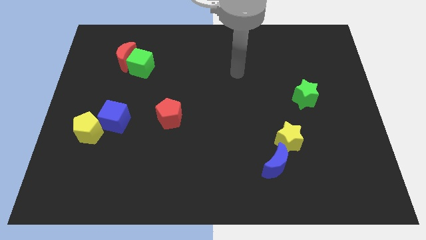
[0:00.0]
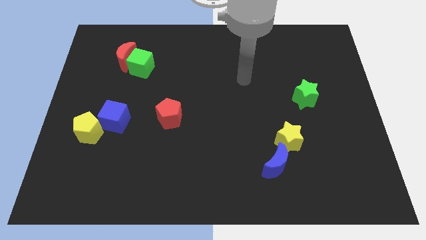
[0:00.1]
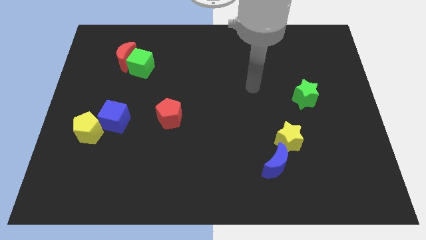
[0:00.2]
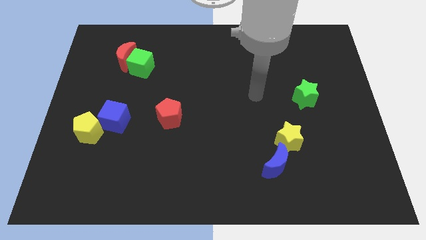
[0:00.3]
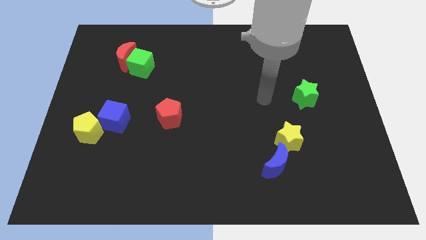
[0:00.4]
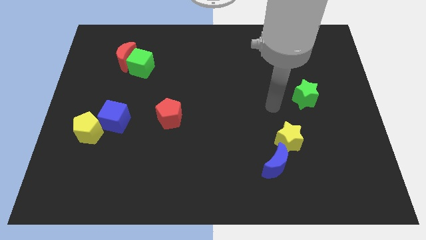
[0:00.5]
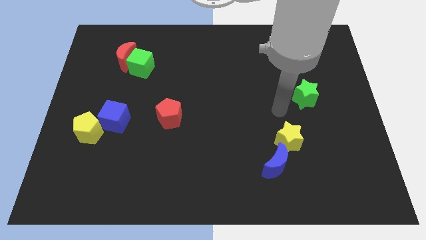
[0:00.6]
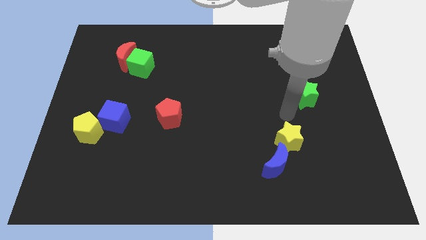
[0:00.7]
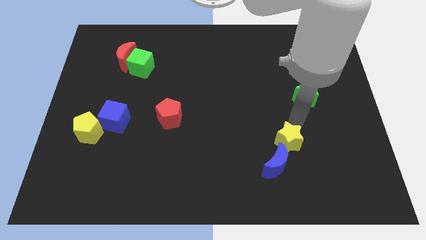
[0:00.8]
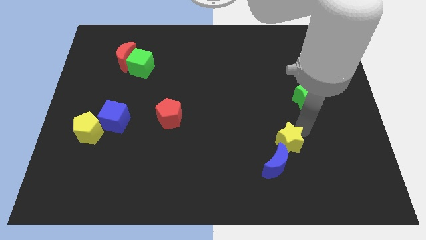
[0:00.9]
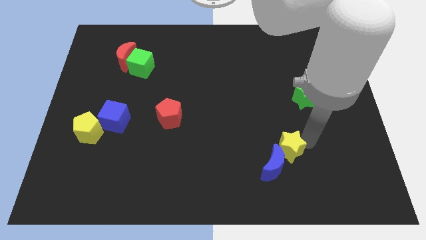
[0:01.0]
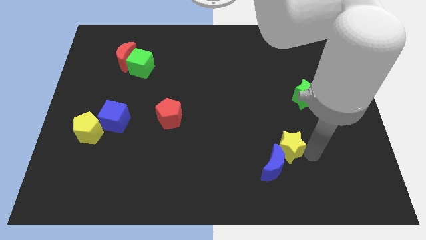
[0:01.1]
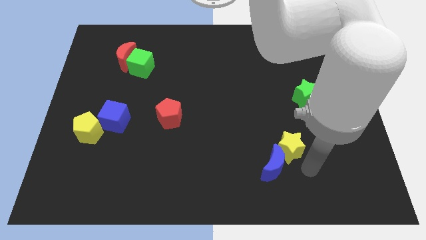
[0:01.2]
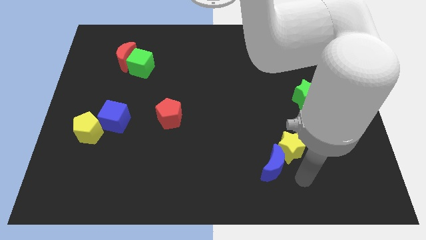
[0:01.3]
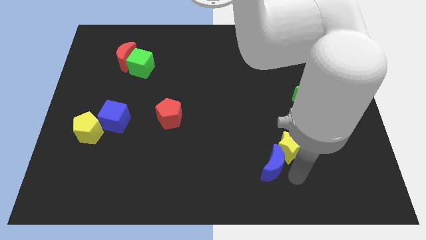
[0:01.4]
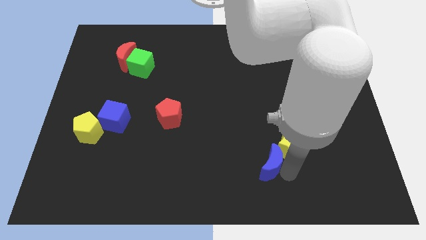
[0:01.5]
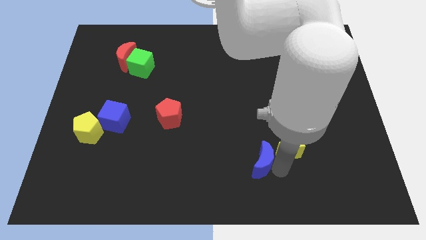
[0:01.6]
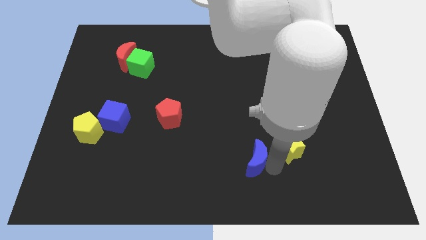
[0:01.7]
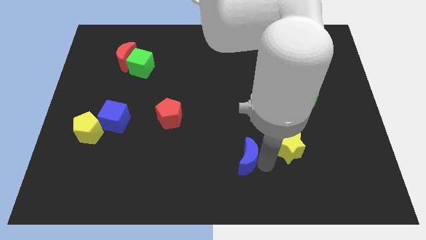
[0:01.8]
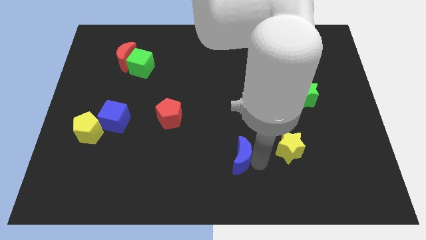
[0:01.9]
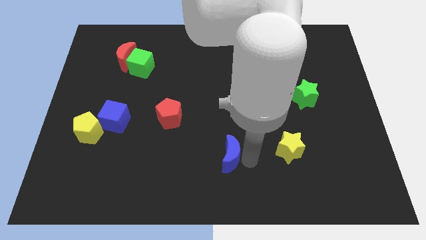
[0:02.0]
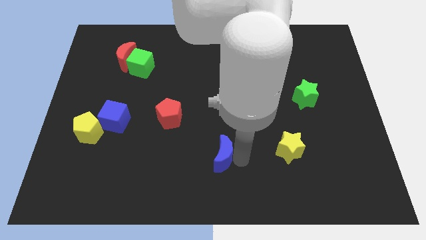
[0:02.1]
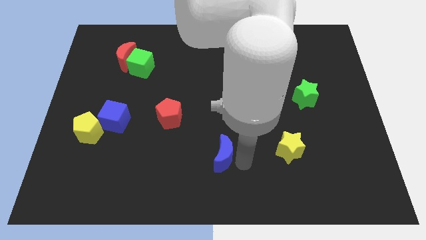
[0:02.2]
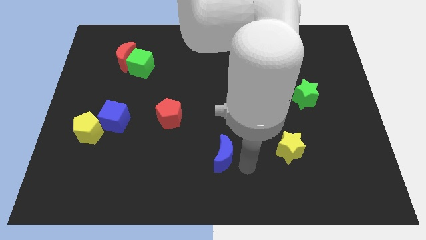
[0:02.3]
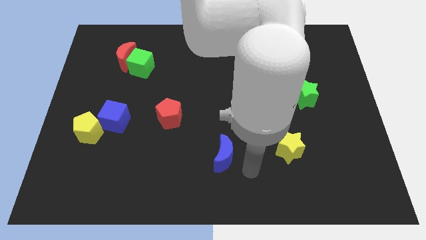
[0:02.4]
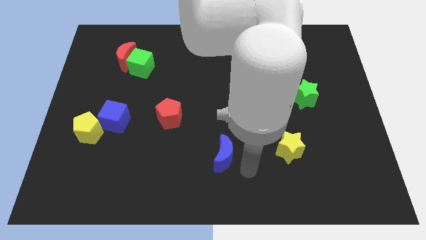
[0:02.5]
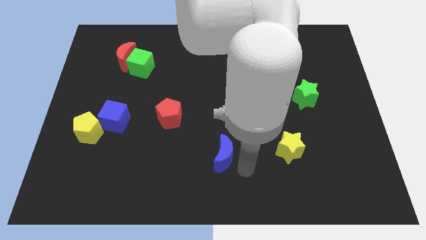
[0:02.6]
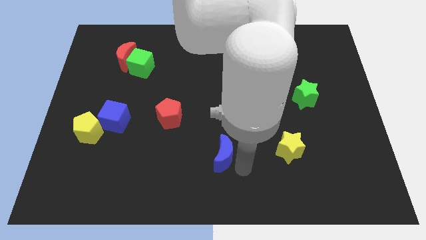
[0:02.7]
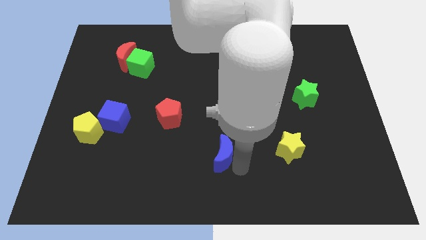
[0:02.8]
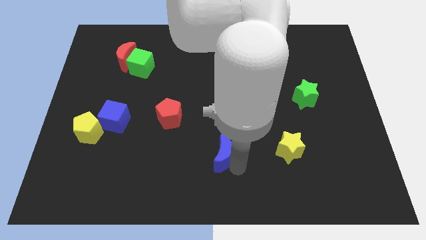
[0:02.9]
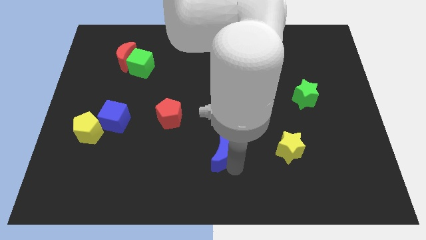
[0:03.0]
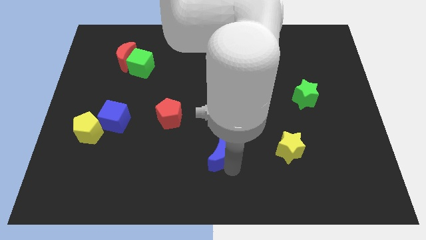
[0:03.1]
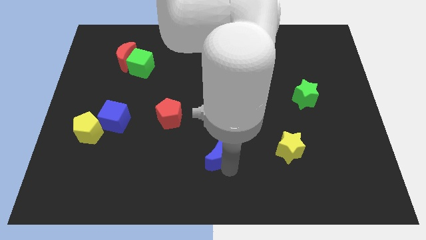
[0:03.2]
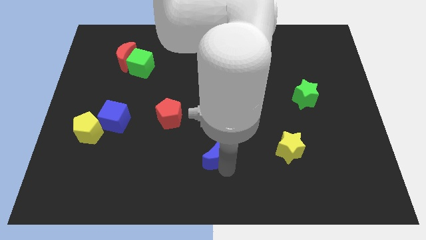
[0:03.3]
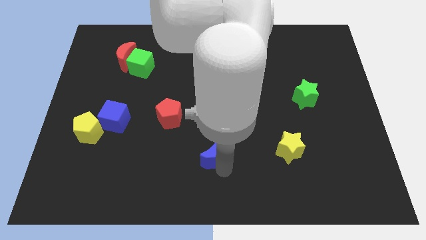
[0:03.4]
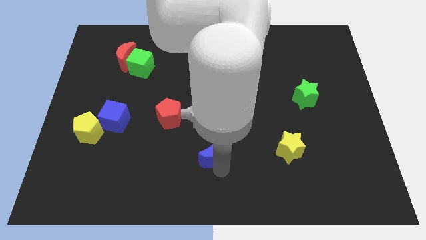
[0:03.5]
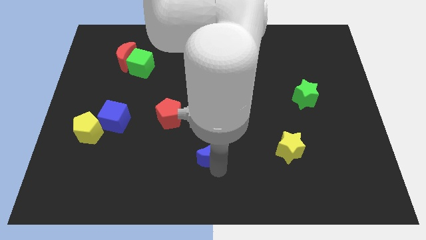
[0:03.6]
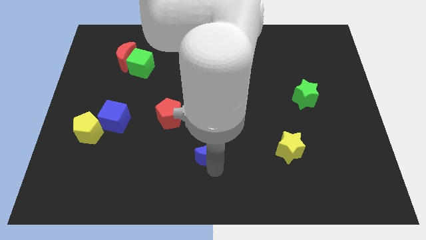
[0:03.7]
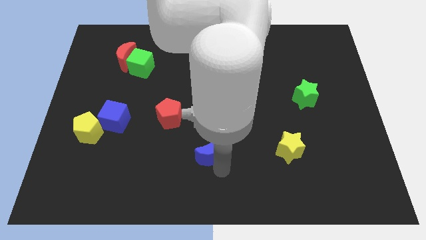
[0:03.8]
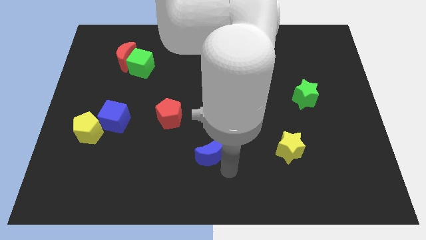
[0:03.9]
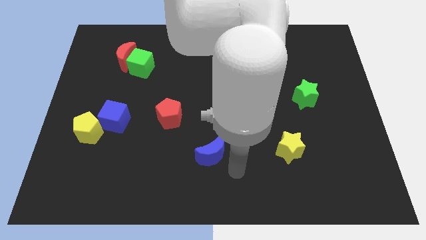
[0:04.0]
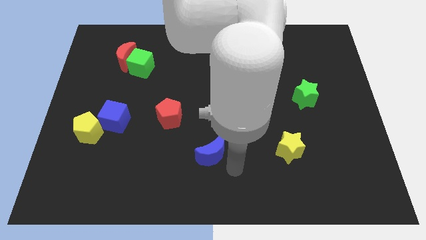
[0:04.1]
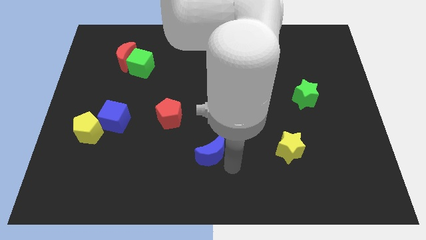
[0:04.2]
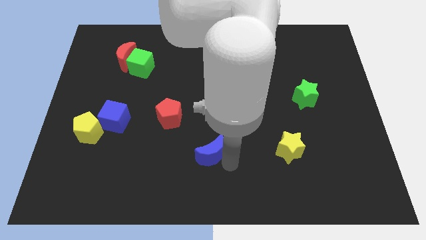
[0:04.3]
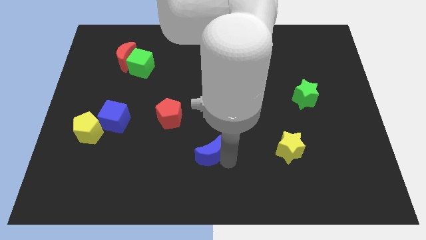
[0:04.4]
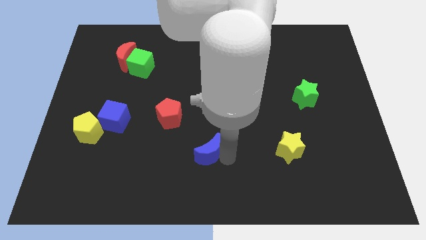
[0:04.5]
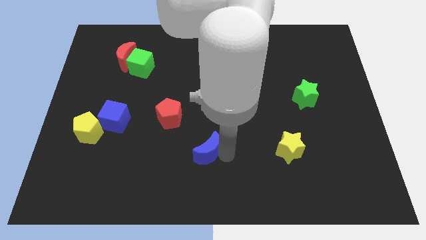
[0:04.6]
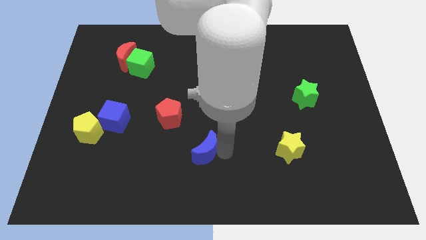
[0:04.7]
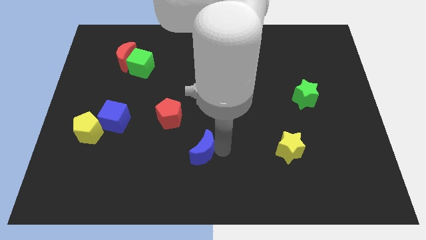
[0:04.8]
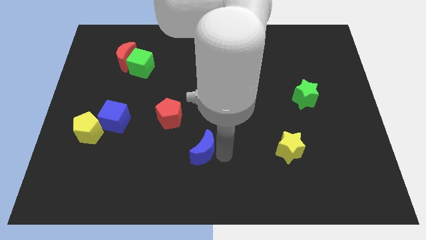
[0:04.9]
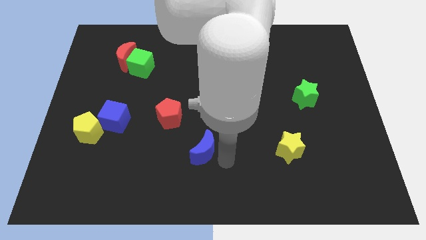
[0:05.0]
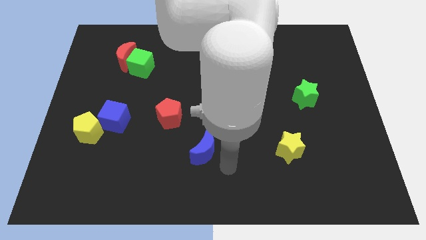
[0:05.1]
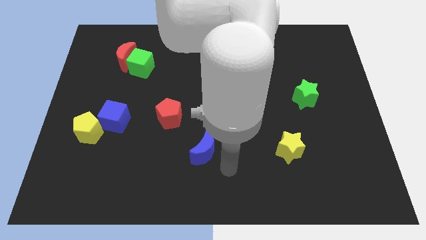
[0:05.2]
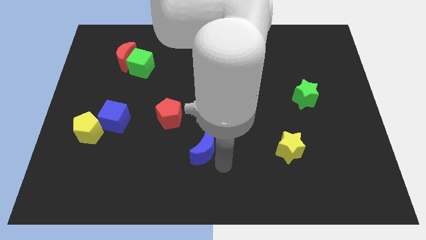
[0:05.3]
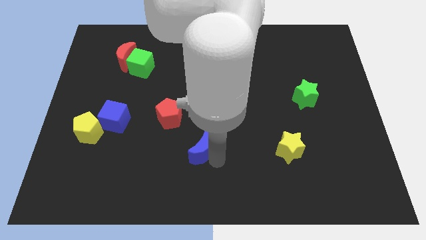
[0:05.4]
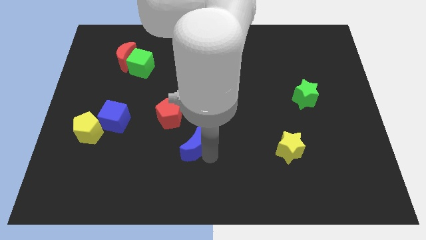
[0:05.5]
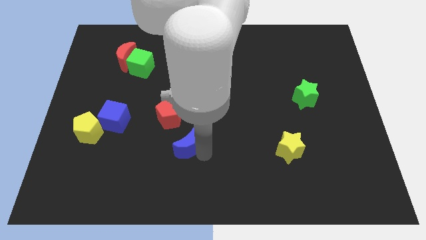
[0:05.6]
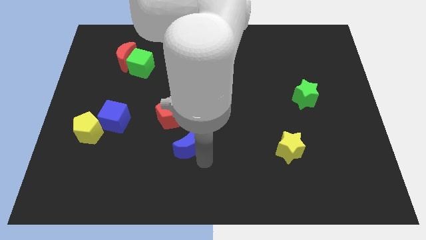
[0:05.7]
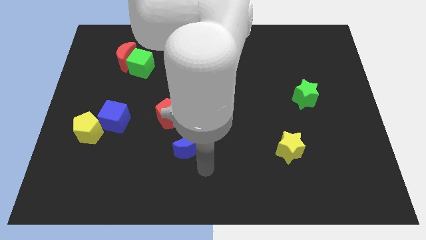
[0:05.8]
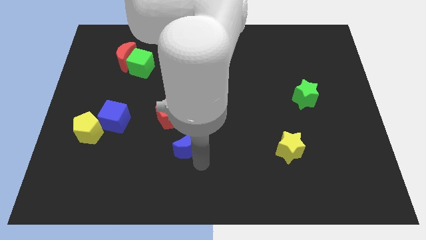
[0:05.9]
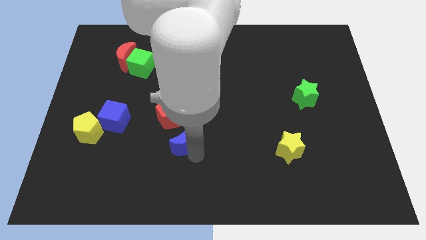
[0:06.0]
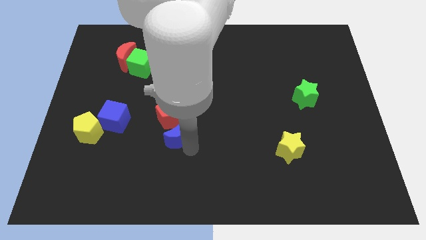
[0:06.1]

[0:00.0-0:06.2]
move the blue moon towards the red pentagon

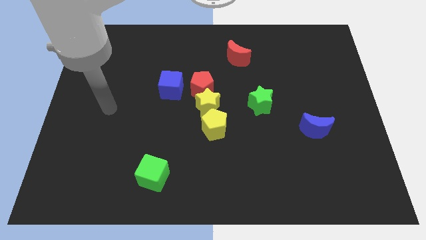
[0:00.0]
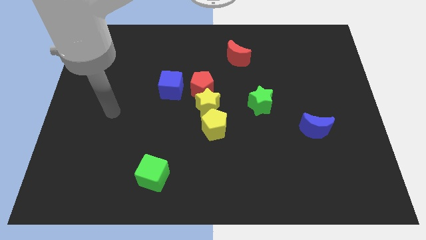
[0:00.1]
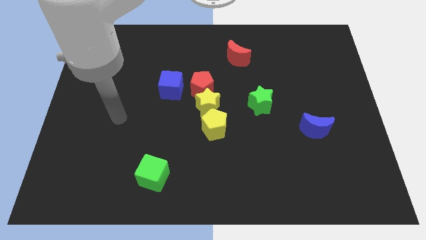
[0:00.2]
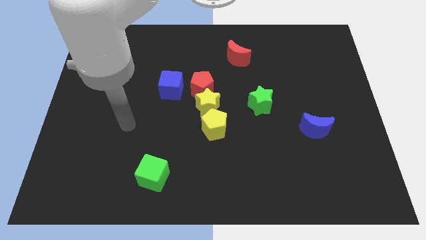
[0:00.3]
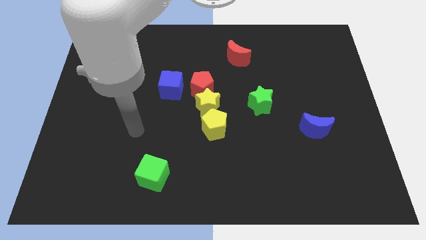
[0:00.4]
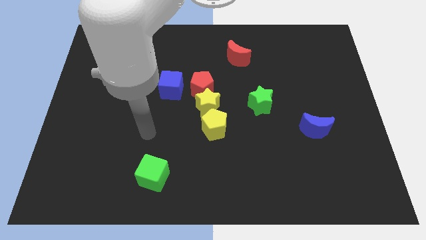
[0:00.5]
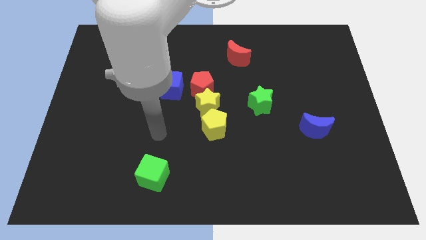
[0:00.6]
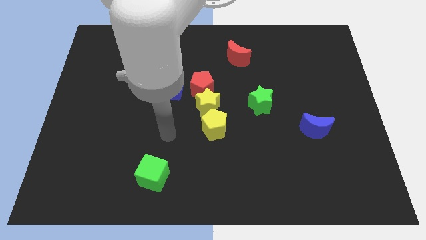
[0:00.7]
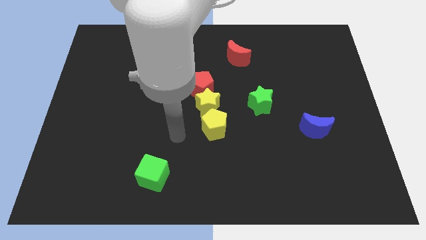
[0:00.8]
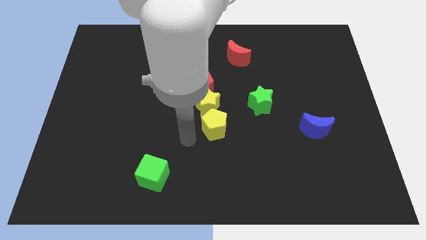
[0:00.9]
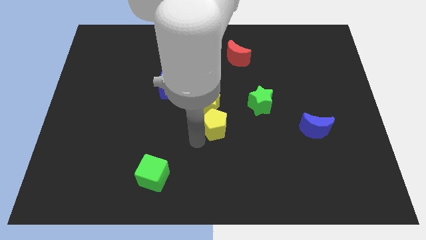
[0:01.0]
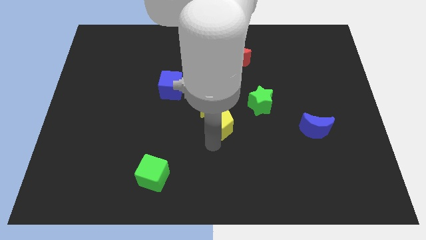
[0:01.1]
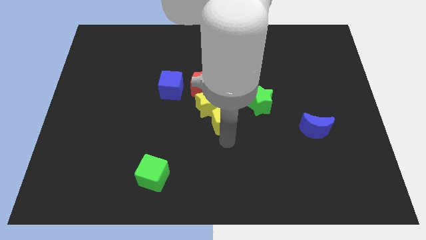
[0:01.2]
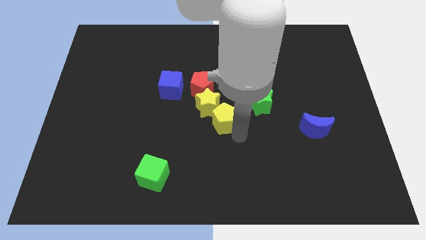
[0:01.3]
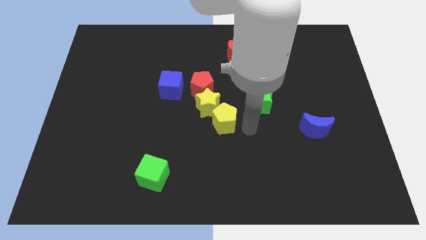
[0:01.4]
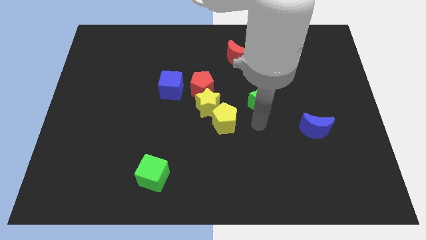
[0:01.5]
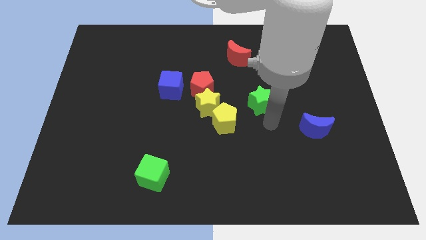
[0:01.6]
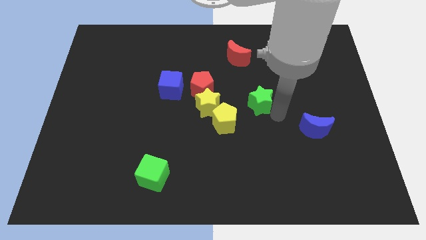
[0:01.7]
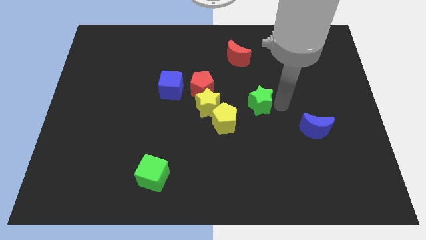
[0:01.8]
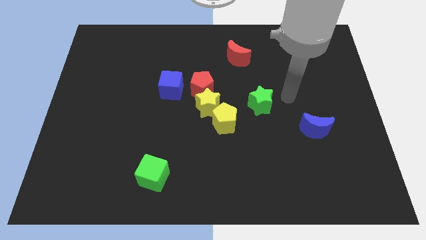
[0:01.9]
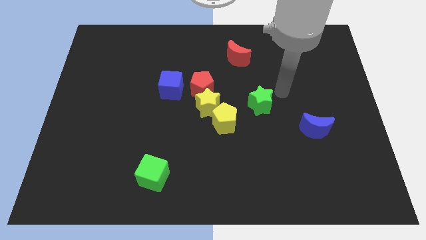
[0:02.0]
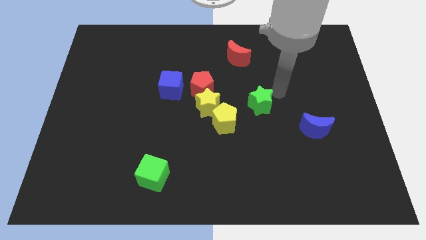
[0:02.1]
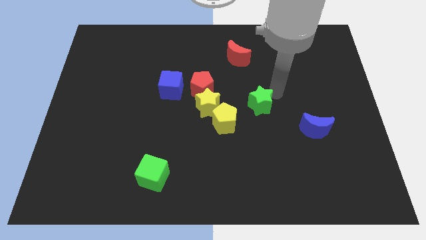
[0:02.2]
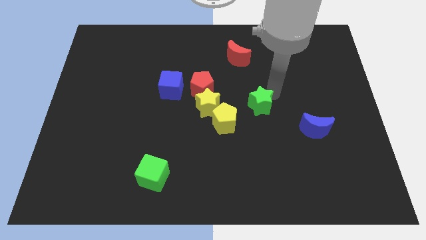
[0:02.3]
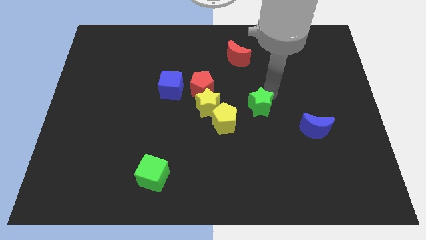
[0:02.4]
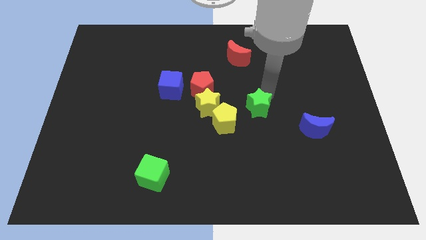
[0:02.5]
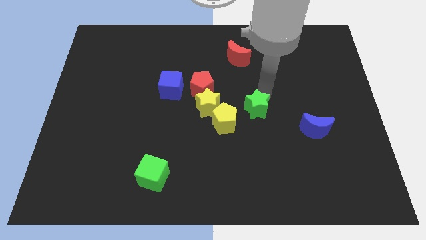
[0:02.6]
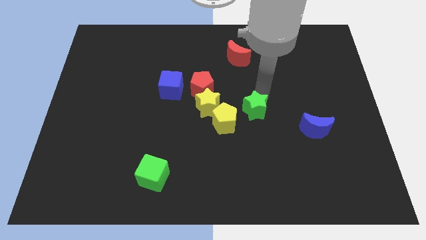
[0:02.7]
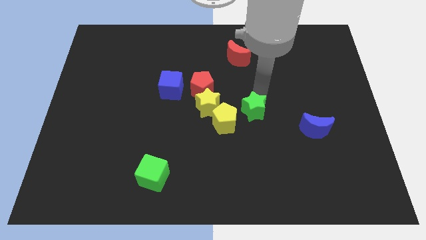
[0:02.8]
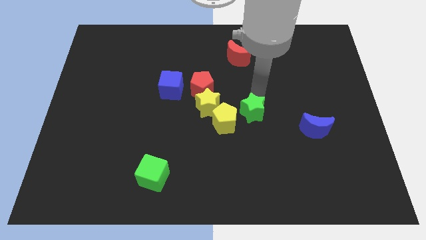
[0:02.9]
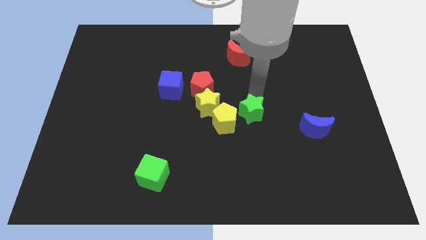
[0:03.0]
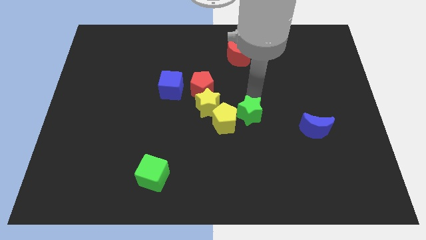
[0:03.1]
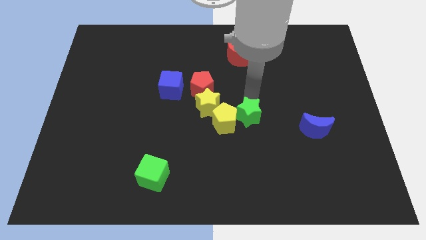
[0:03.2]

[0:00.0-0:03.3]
slide the green star close to the yellow pentagon
